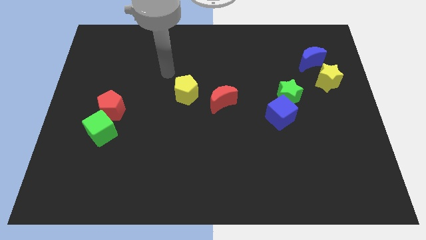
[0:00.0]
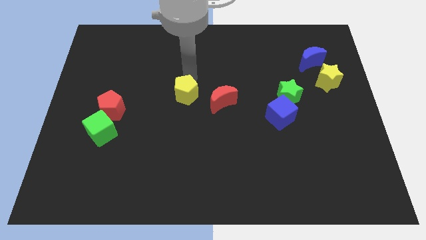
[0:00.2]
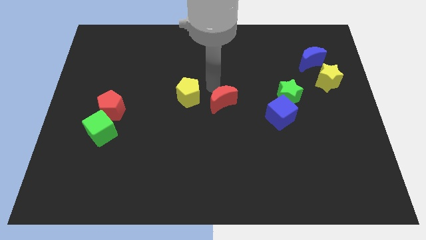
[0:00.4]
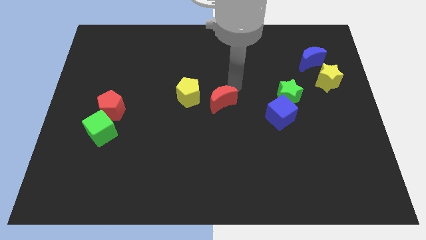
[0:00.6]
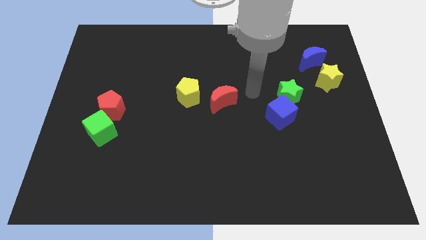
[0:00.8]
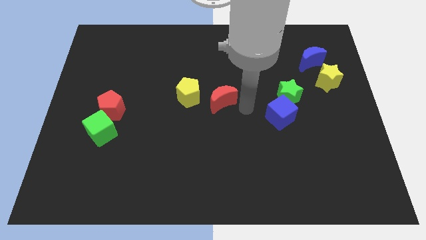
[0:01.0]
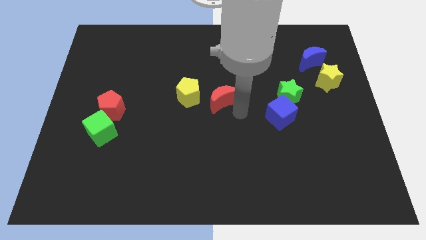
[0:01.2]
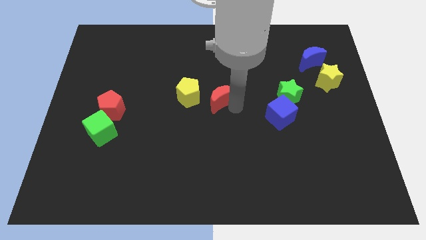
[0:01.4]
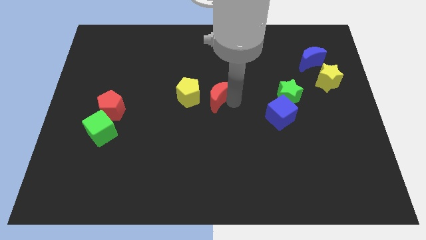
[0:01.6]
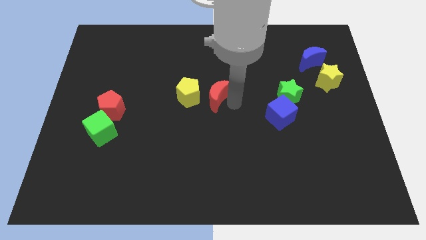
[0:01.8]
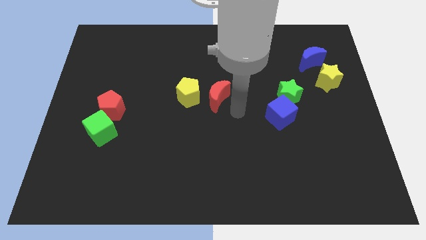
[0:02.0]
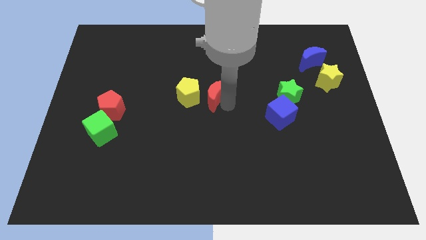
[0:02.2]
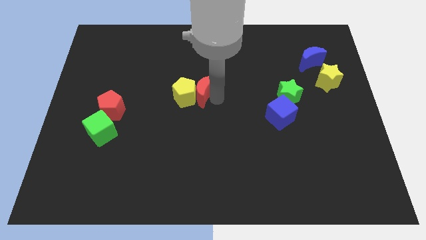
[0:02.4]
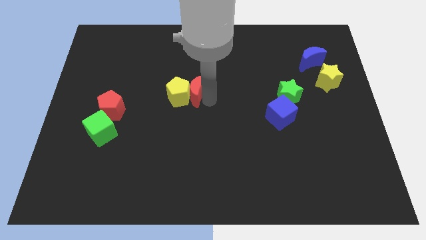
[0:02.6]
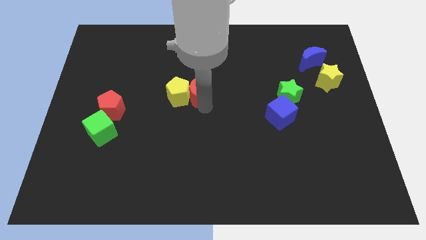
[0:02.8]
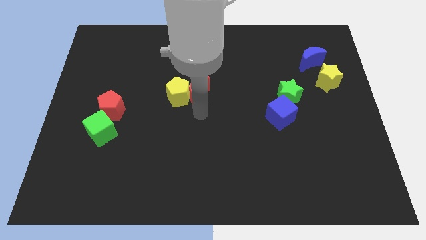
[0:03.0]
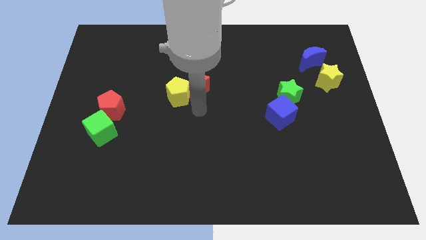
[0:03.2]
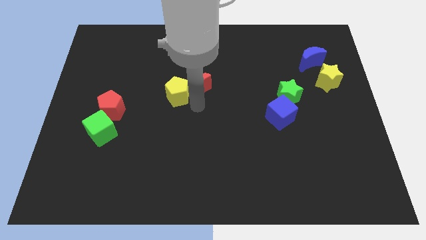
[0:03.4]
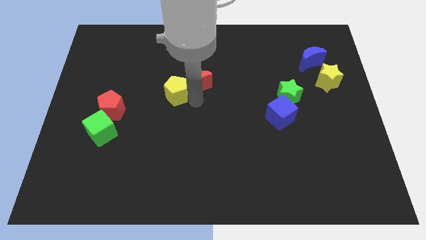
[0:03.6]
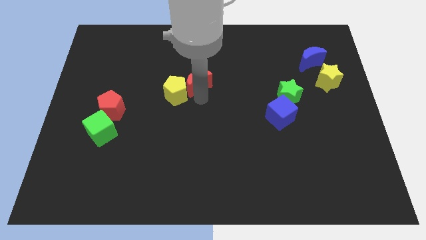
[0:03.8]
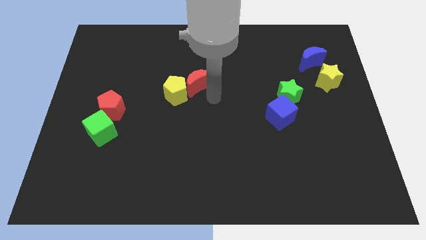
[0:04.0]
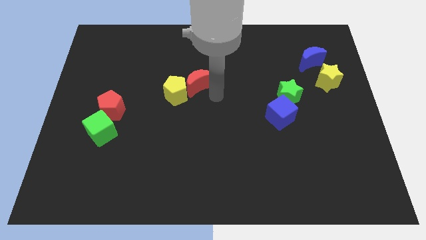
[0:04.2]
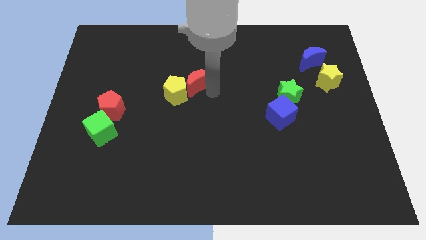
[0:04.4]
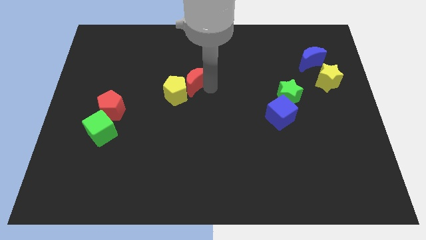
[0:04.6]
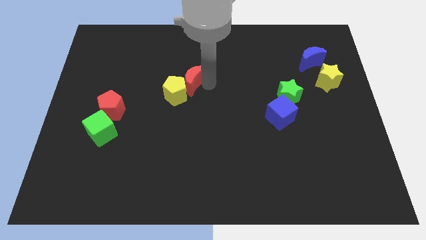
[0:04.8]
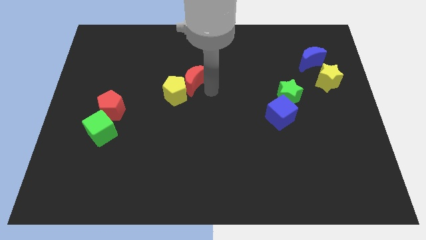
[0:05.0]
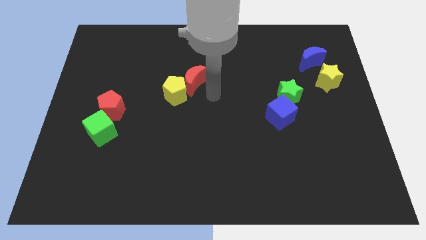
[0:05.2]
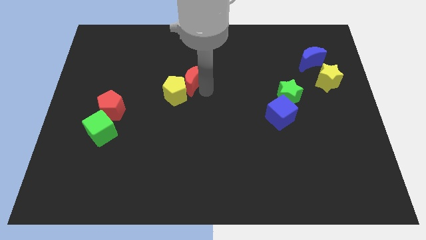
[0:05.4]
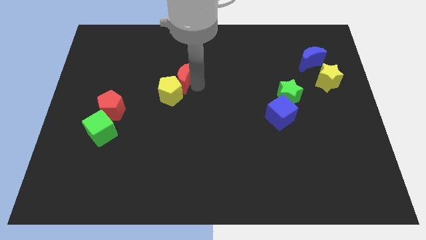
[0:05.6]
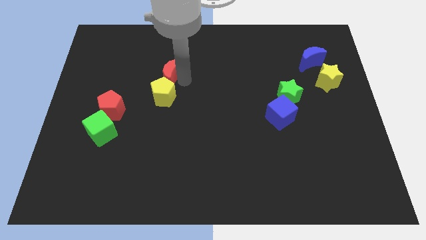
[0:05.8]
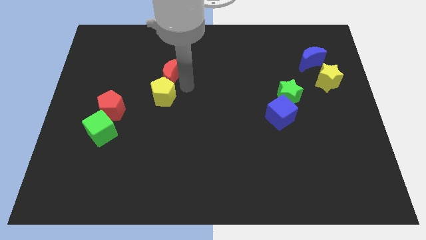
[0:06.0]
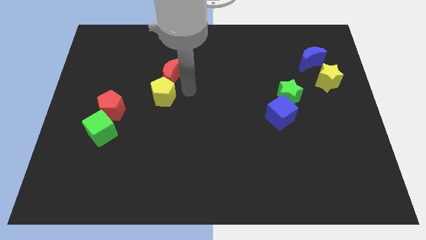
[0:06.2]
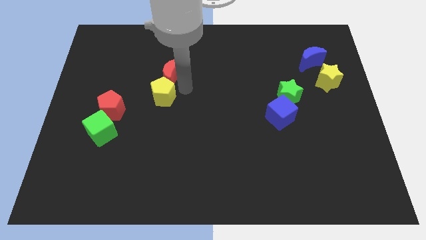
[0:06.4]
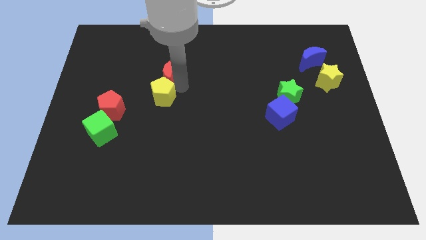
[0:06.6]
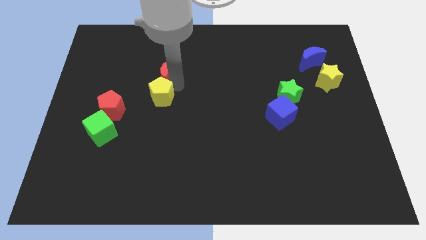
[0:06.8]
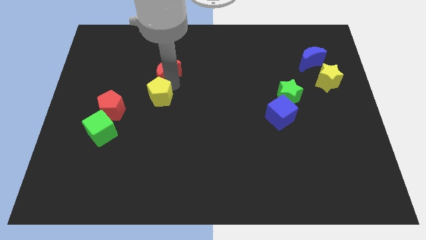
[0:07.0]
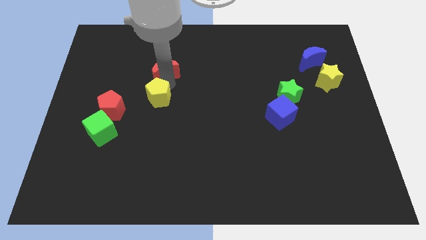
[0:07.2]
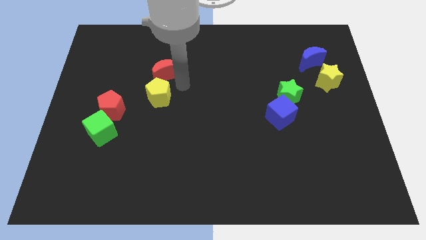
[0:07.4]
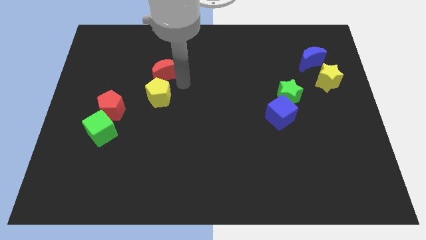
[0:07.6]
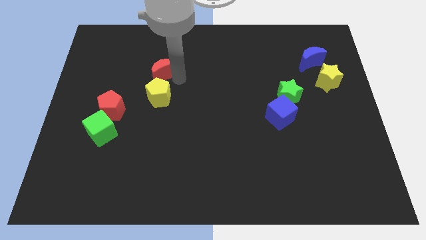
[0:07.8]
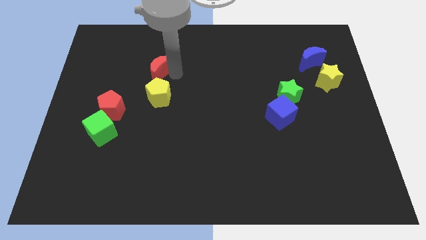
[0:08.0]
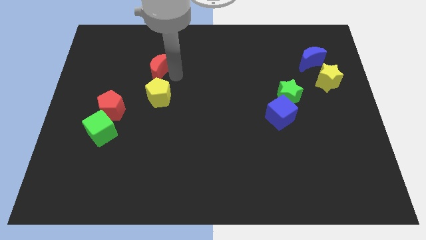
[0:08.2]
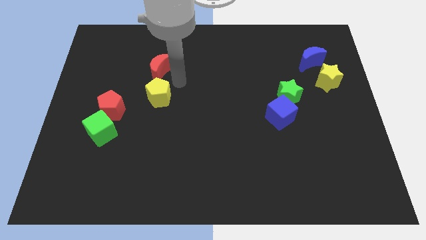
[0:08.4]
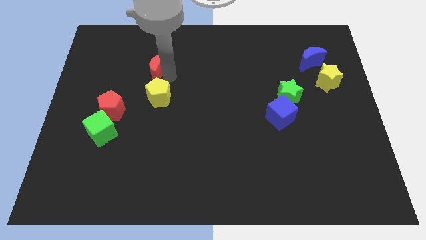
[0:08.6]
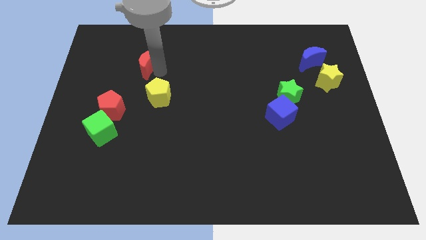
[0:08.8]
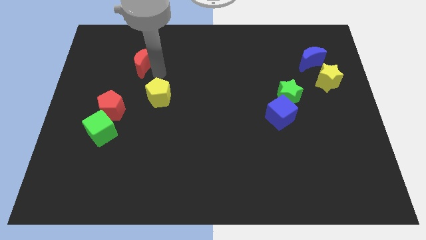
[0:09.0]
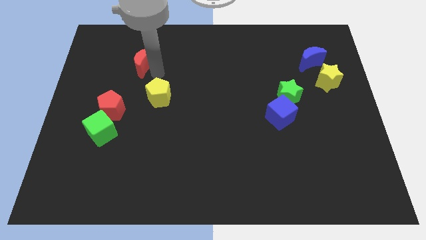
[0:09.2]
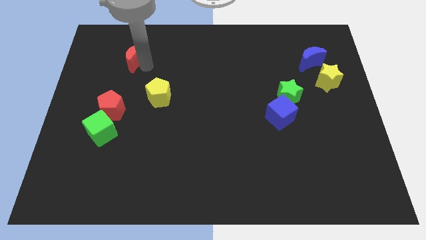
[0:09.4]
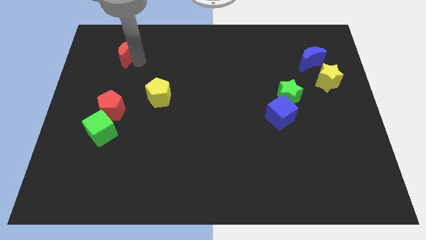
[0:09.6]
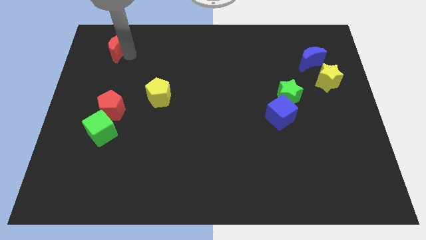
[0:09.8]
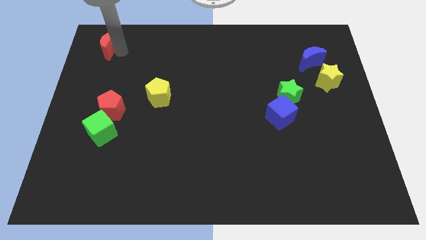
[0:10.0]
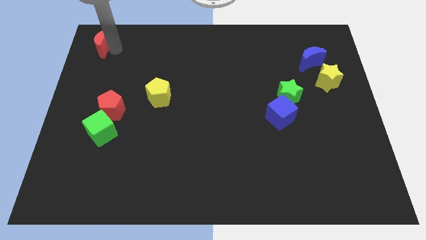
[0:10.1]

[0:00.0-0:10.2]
put the red moon to the top left

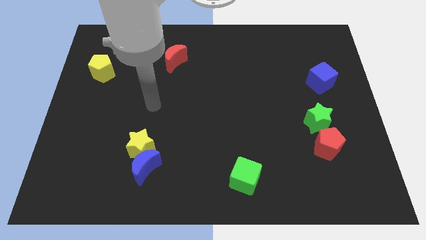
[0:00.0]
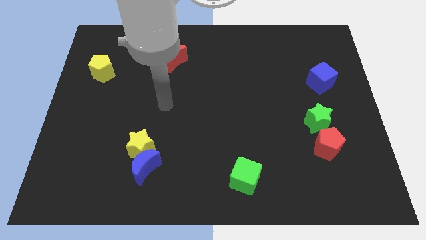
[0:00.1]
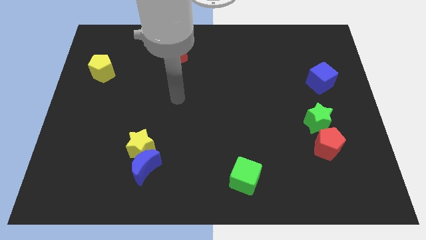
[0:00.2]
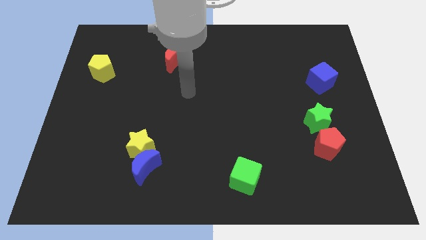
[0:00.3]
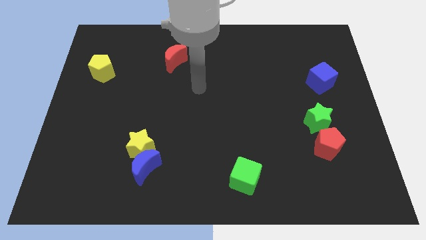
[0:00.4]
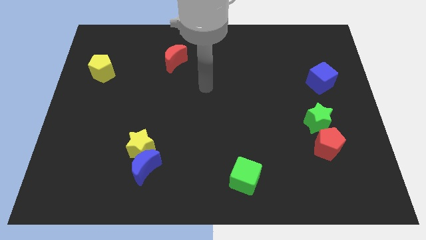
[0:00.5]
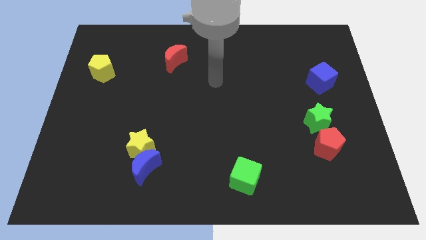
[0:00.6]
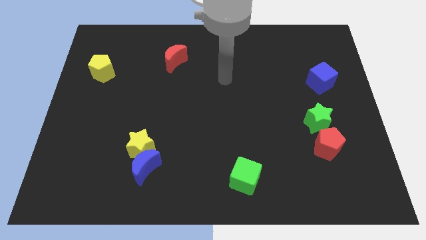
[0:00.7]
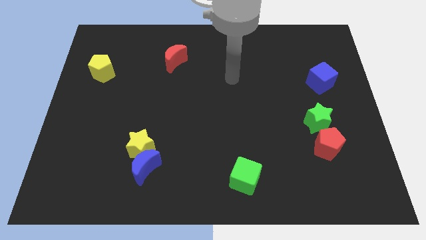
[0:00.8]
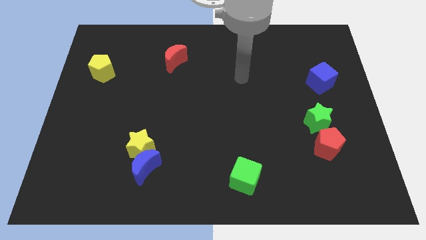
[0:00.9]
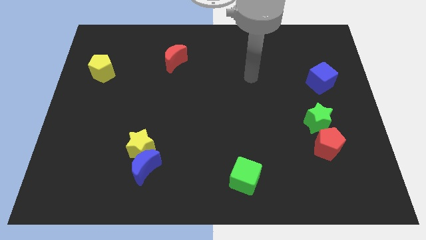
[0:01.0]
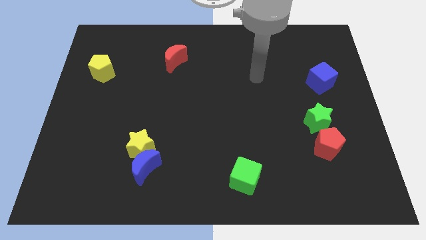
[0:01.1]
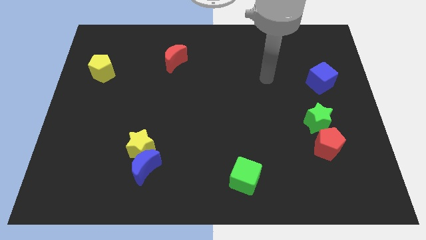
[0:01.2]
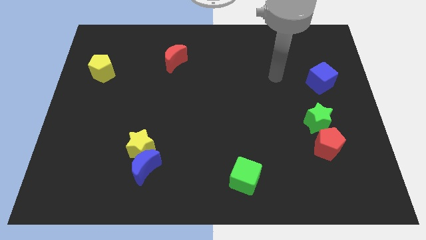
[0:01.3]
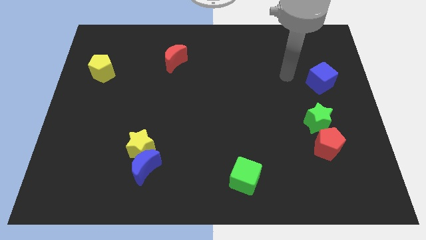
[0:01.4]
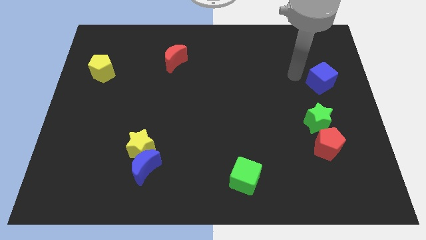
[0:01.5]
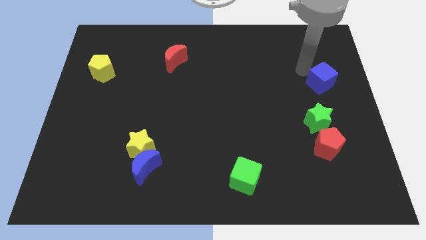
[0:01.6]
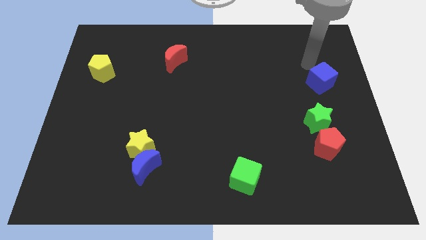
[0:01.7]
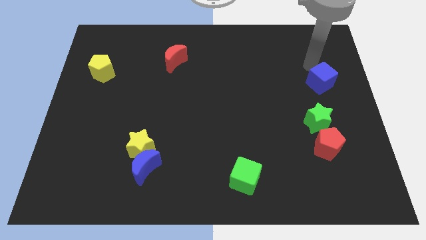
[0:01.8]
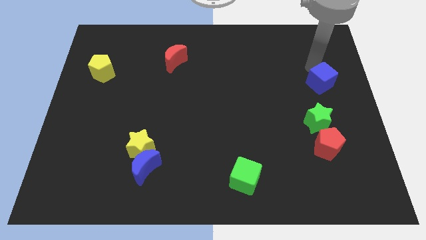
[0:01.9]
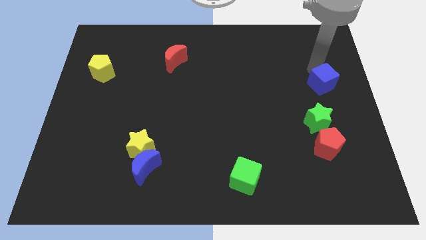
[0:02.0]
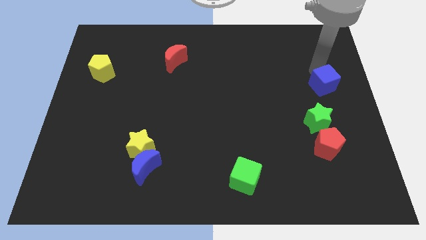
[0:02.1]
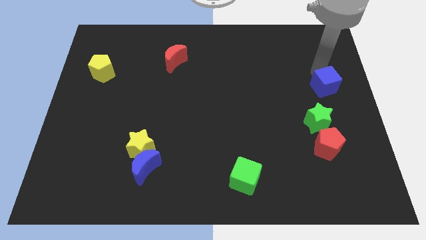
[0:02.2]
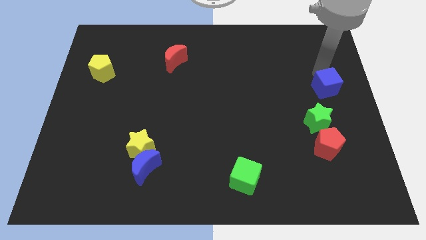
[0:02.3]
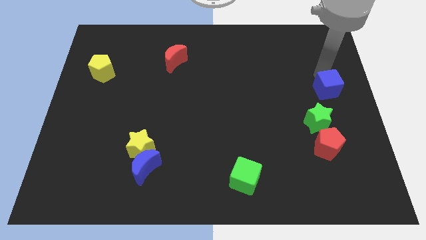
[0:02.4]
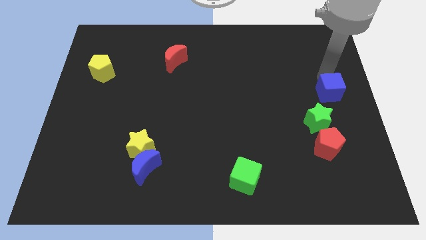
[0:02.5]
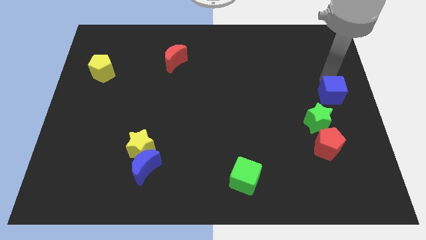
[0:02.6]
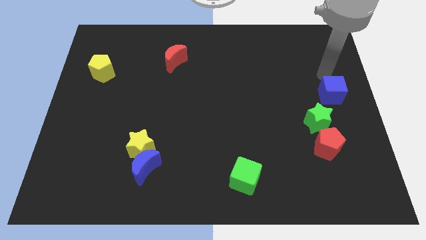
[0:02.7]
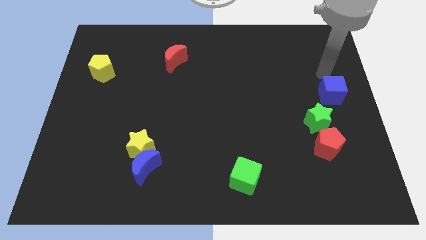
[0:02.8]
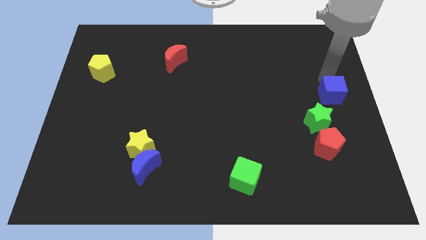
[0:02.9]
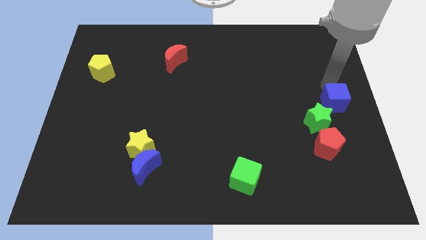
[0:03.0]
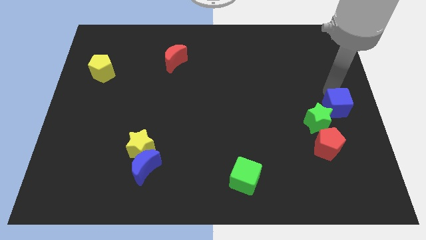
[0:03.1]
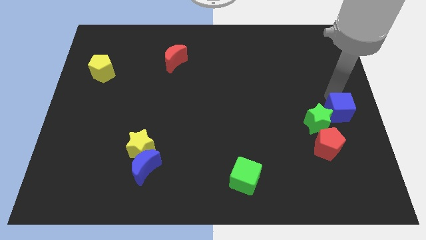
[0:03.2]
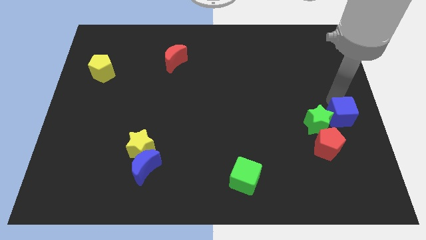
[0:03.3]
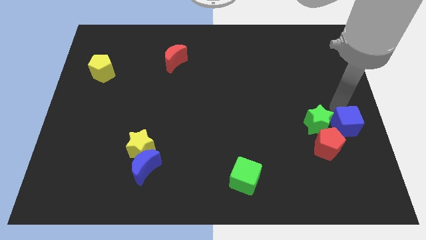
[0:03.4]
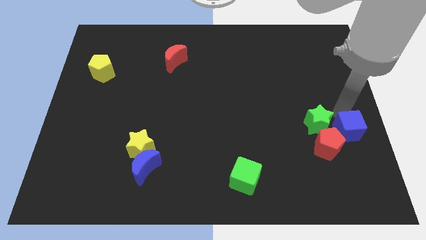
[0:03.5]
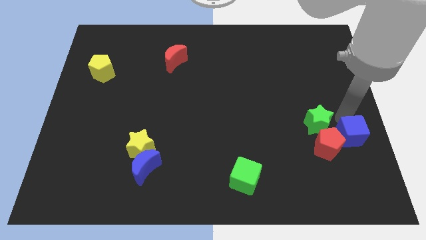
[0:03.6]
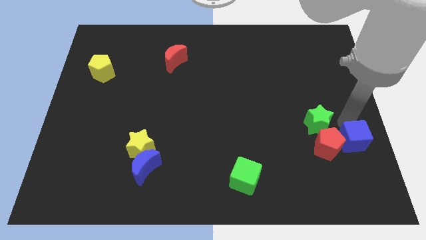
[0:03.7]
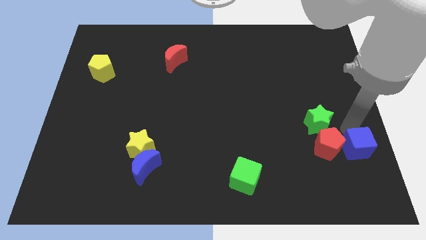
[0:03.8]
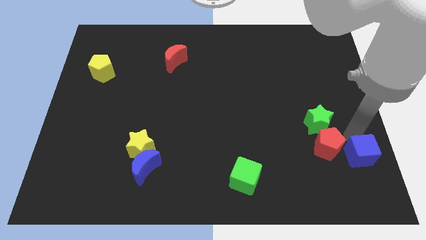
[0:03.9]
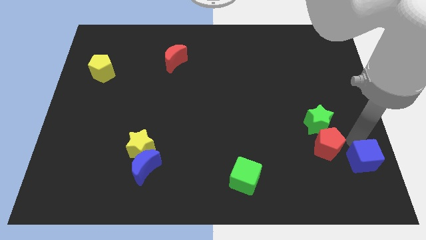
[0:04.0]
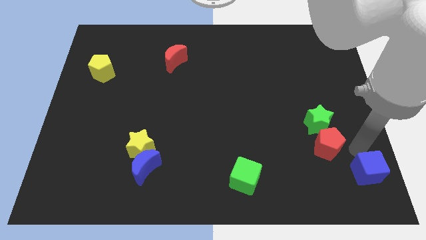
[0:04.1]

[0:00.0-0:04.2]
put the blue cube to the bottom right of the board
